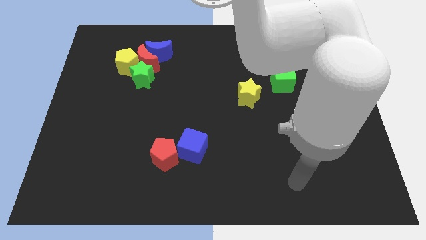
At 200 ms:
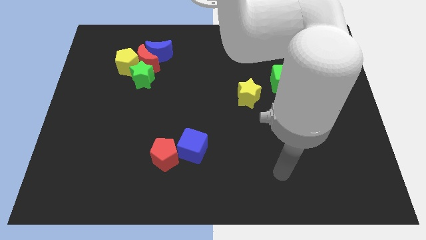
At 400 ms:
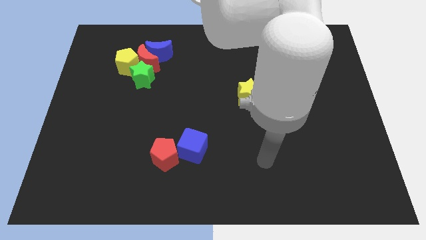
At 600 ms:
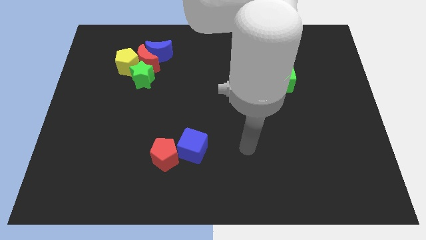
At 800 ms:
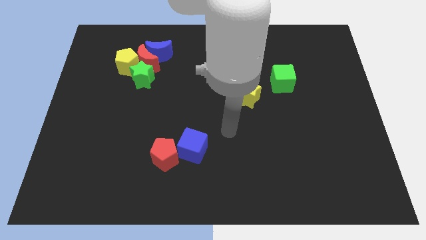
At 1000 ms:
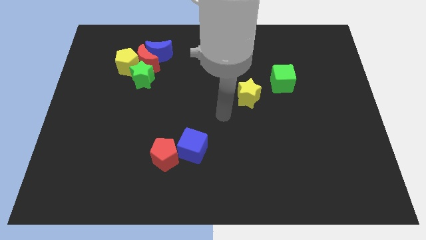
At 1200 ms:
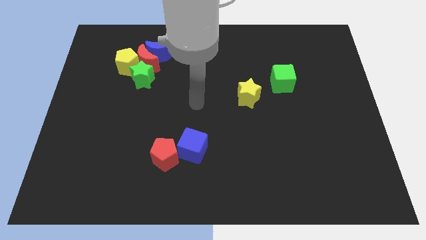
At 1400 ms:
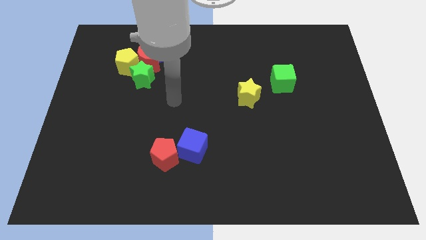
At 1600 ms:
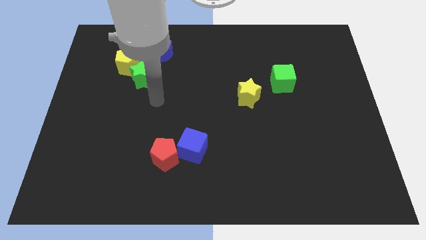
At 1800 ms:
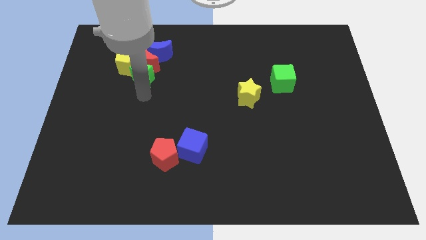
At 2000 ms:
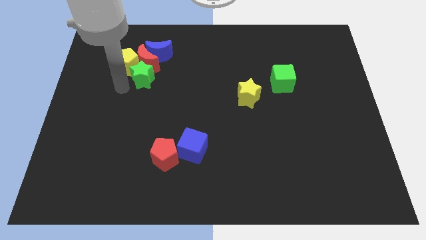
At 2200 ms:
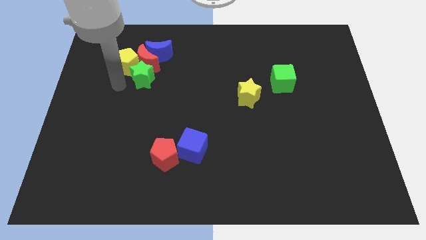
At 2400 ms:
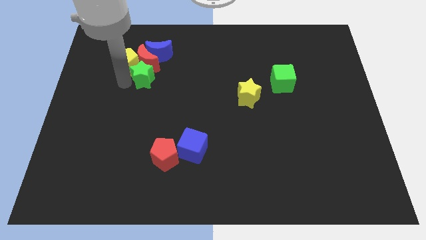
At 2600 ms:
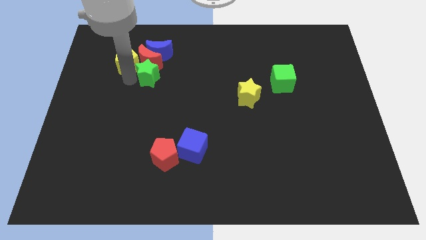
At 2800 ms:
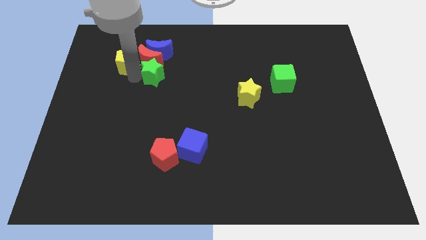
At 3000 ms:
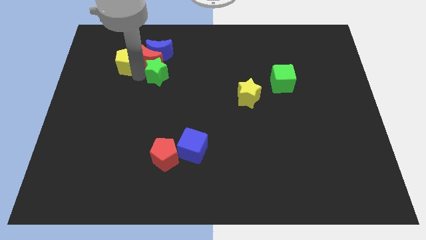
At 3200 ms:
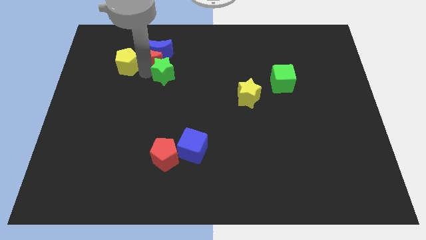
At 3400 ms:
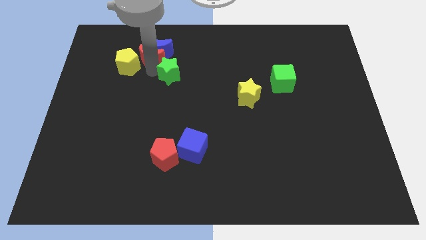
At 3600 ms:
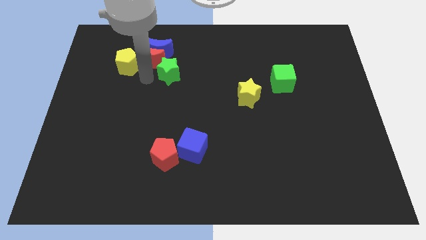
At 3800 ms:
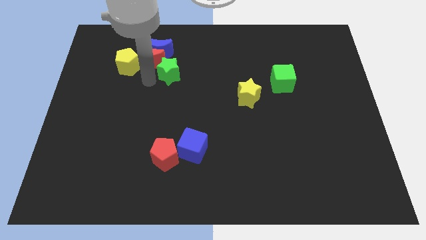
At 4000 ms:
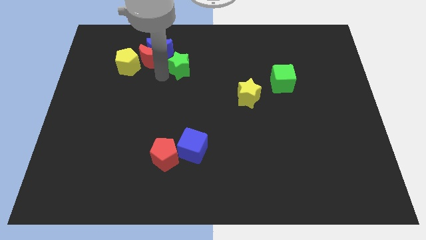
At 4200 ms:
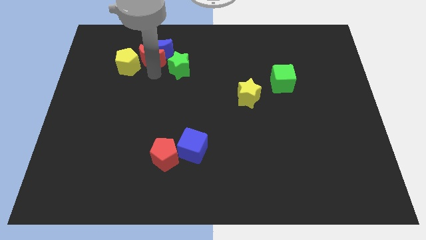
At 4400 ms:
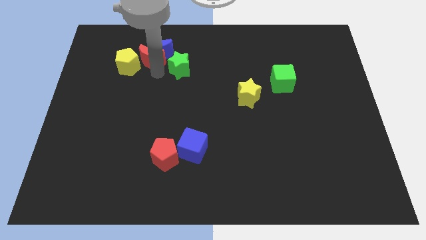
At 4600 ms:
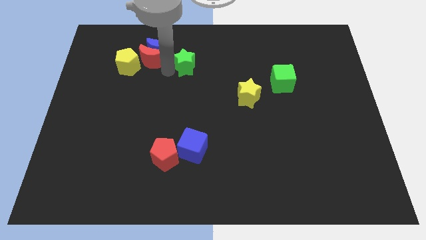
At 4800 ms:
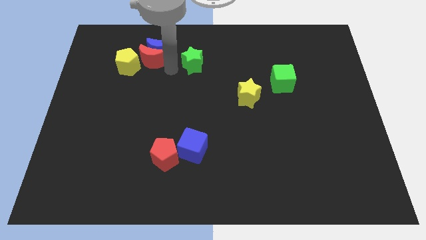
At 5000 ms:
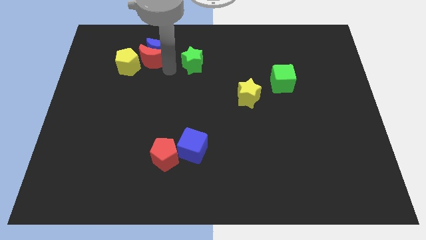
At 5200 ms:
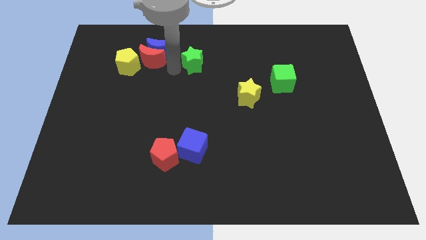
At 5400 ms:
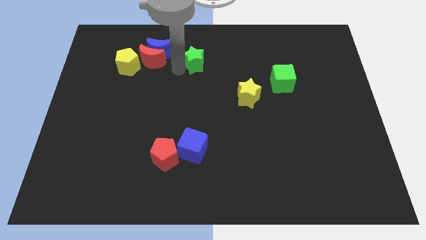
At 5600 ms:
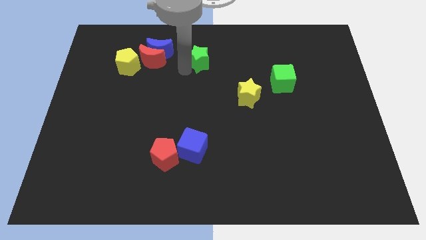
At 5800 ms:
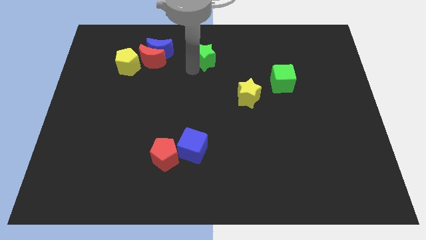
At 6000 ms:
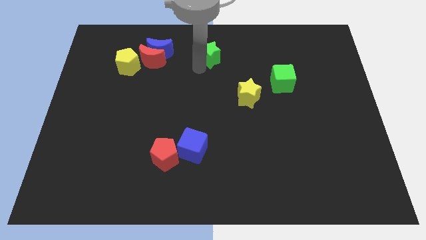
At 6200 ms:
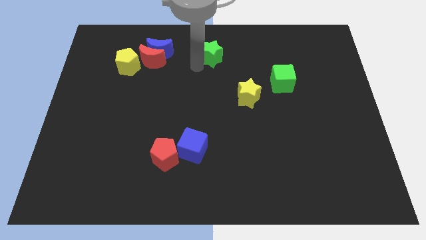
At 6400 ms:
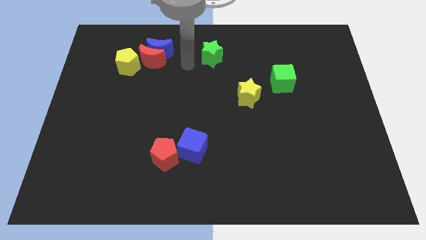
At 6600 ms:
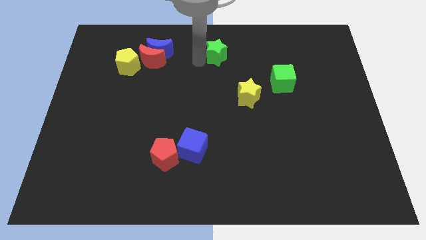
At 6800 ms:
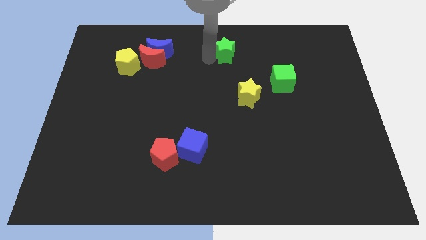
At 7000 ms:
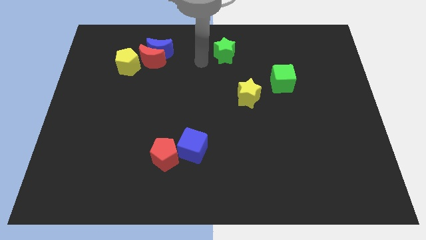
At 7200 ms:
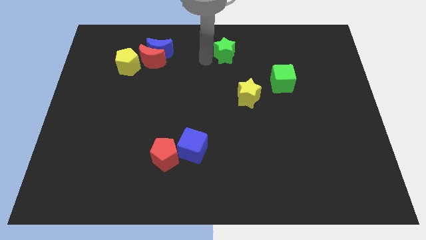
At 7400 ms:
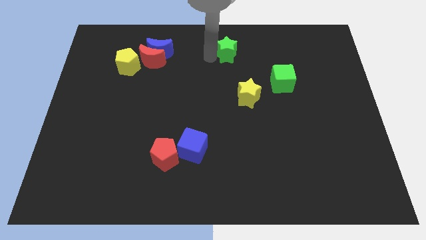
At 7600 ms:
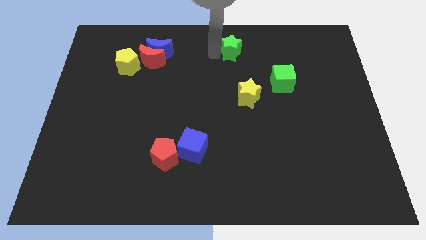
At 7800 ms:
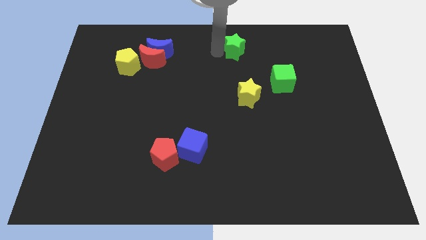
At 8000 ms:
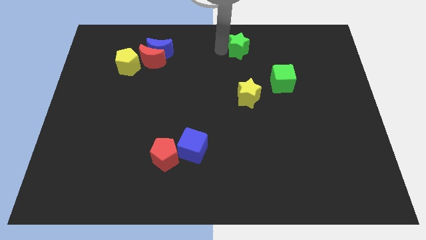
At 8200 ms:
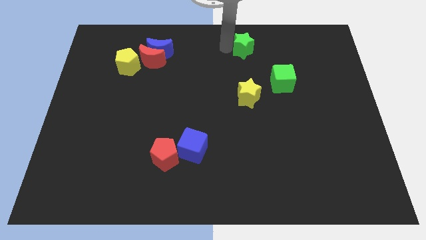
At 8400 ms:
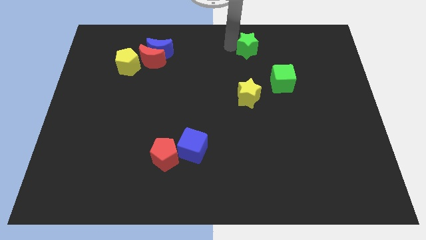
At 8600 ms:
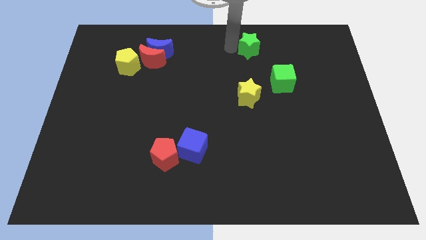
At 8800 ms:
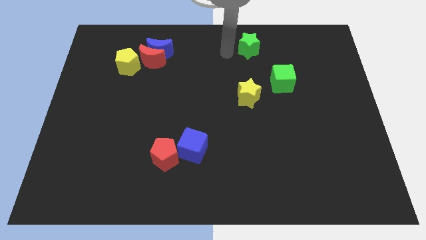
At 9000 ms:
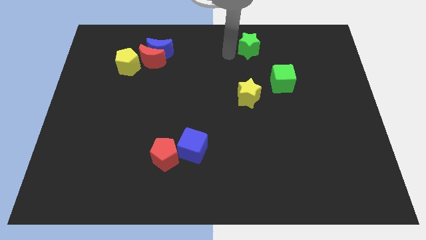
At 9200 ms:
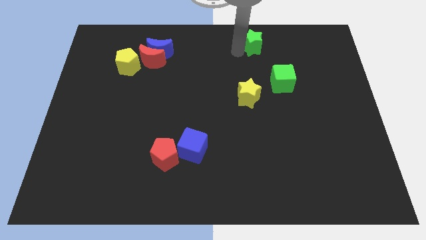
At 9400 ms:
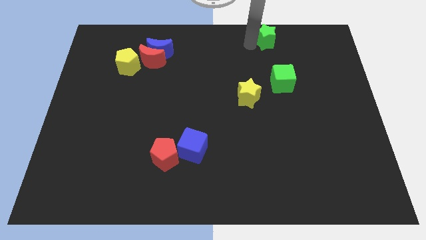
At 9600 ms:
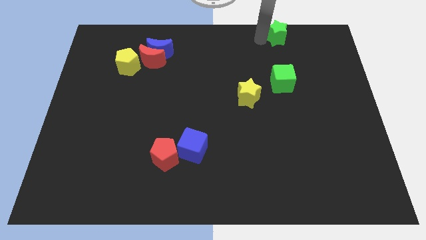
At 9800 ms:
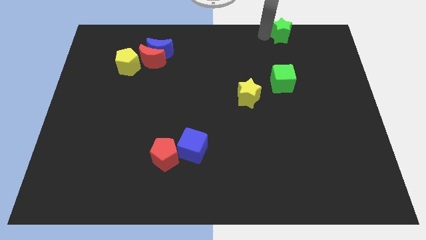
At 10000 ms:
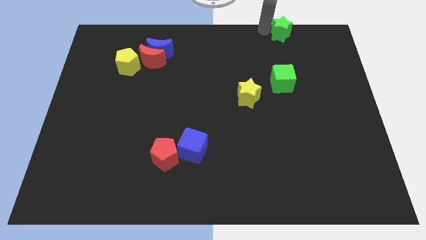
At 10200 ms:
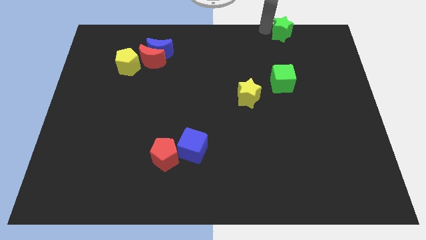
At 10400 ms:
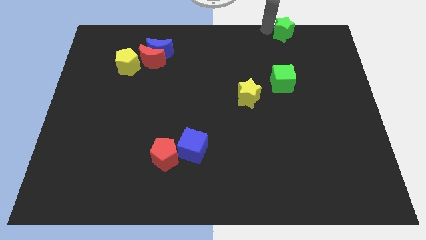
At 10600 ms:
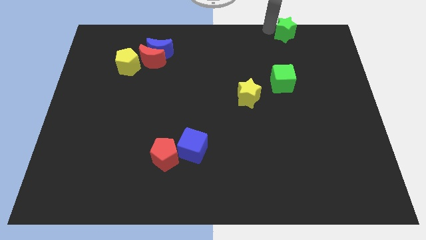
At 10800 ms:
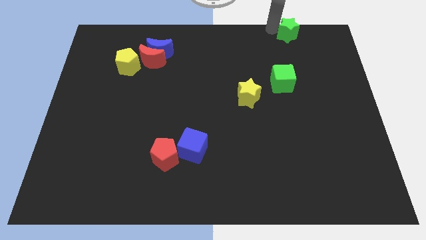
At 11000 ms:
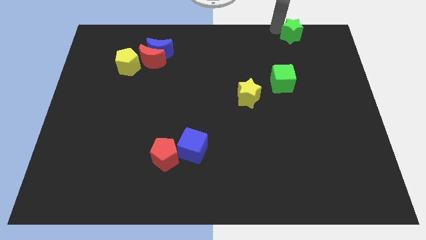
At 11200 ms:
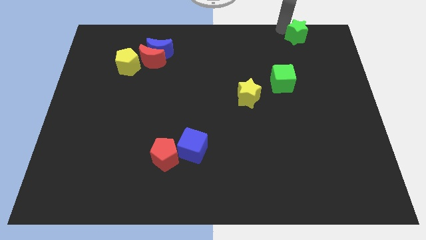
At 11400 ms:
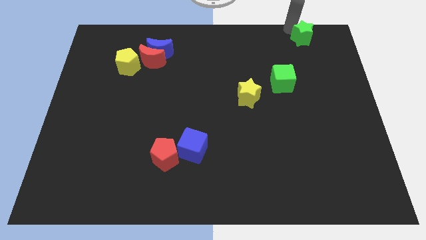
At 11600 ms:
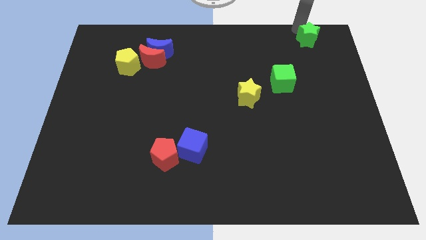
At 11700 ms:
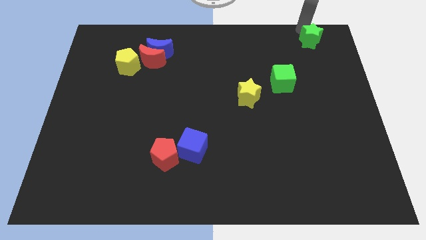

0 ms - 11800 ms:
slide the green star to the top right corner
